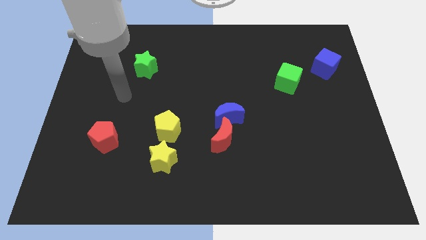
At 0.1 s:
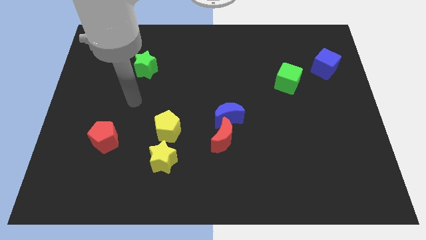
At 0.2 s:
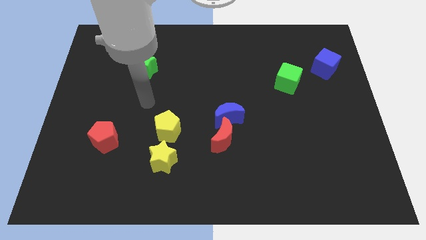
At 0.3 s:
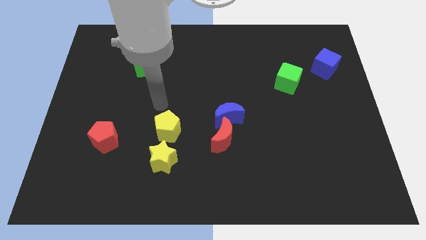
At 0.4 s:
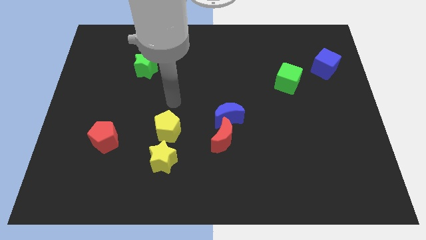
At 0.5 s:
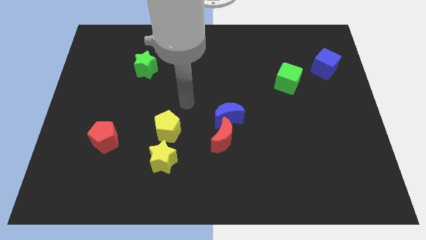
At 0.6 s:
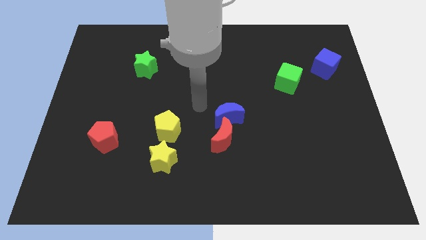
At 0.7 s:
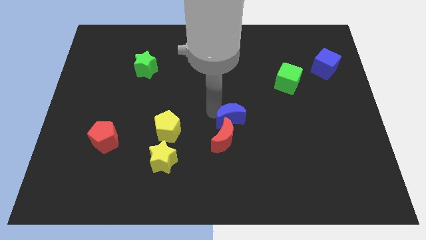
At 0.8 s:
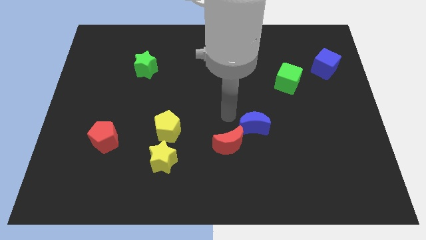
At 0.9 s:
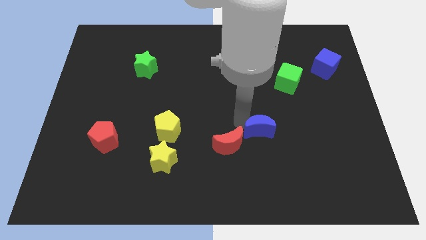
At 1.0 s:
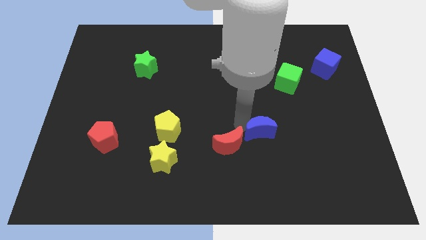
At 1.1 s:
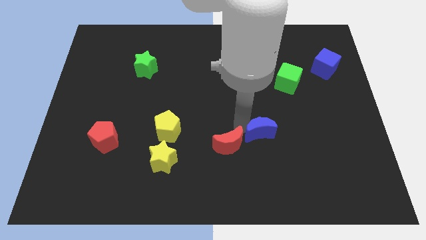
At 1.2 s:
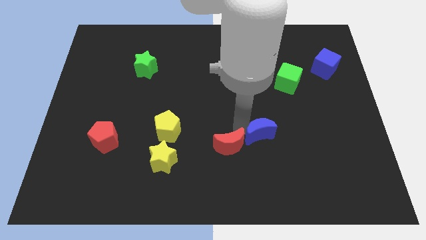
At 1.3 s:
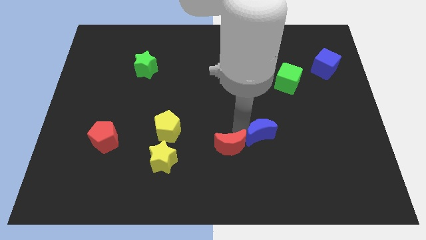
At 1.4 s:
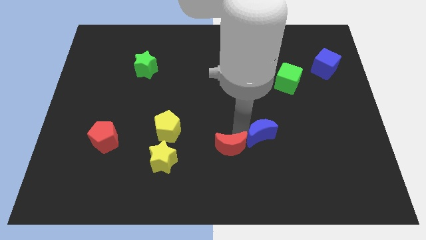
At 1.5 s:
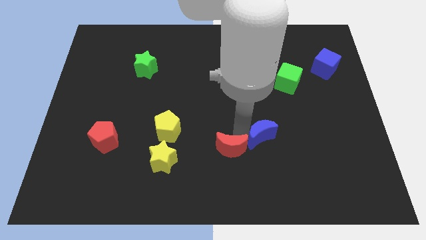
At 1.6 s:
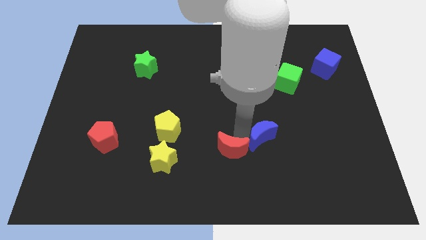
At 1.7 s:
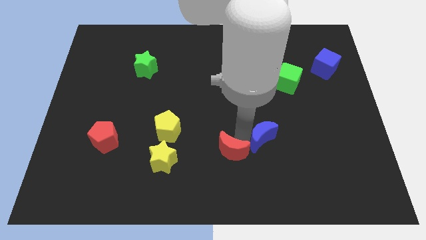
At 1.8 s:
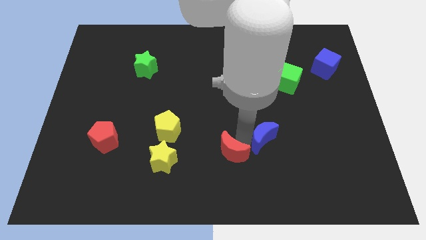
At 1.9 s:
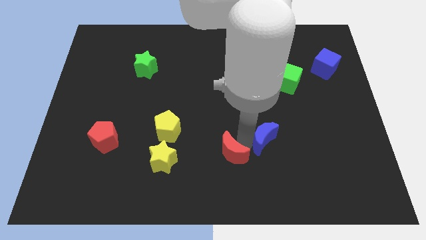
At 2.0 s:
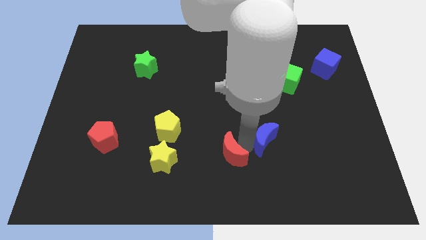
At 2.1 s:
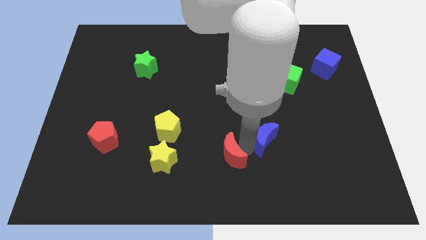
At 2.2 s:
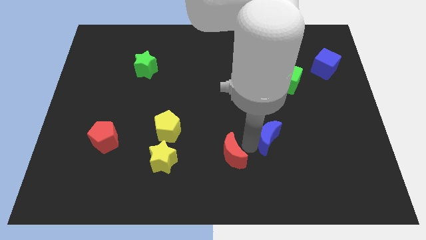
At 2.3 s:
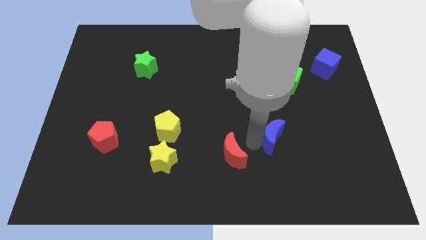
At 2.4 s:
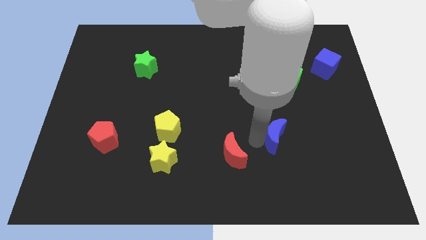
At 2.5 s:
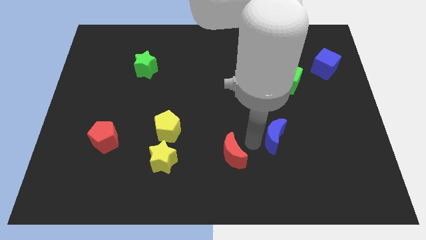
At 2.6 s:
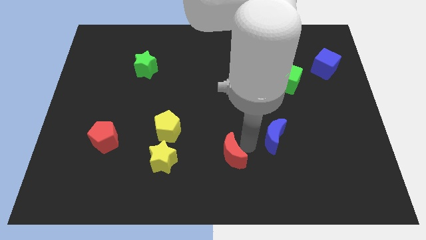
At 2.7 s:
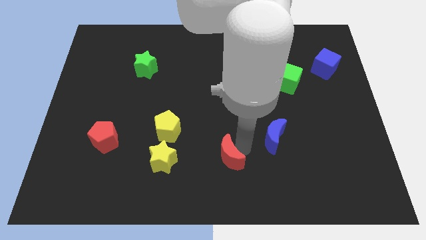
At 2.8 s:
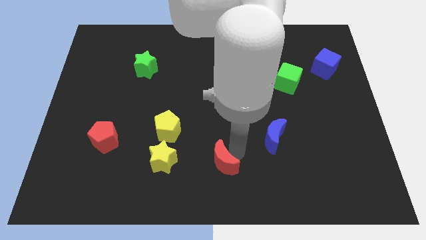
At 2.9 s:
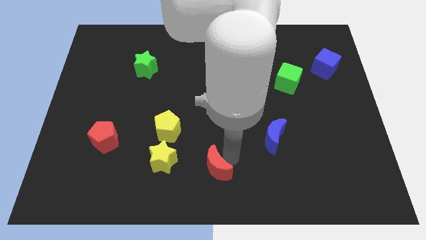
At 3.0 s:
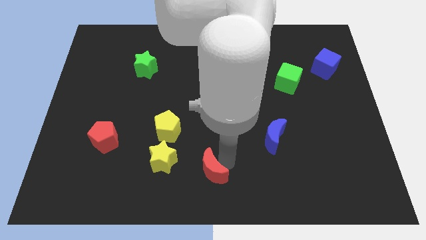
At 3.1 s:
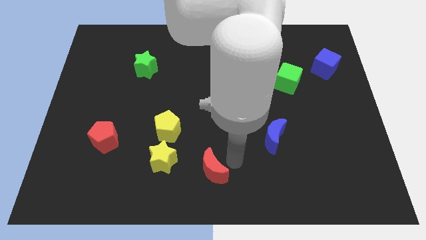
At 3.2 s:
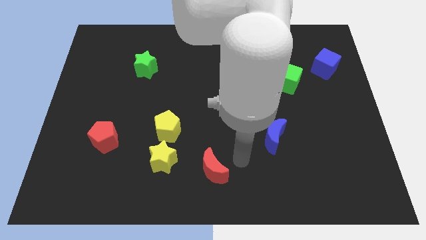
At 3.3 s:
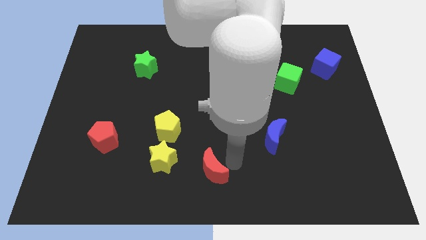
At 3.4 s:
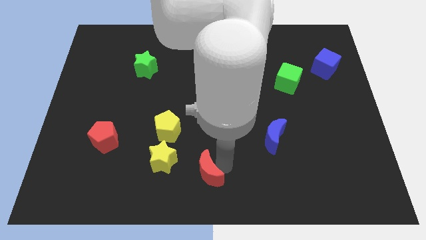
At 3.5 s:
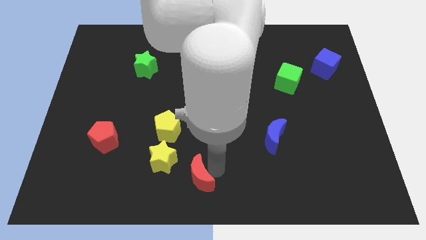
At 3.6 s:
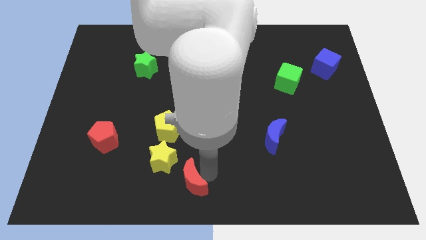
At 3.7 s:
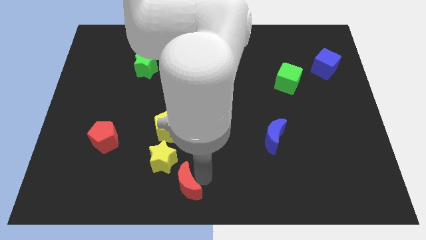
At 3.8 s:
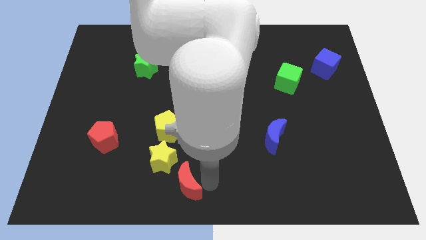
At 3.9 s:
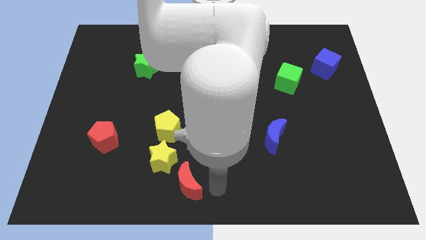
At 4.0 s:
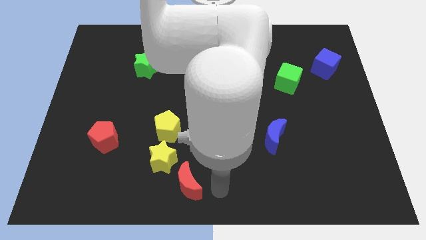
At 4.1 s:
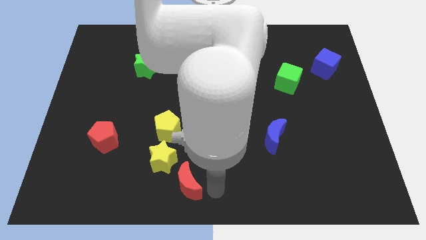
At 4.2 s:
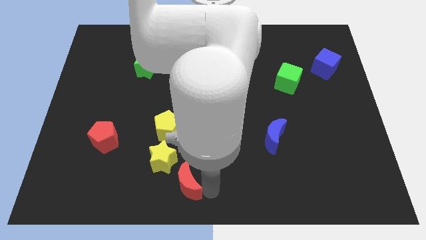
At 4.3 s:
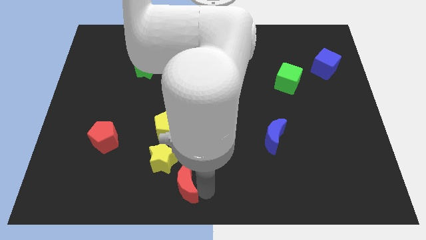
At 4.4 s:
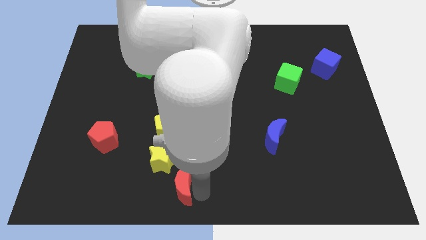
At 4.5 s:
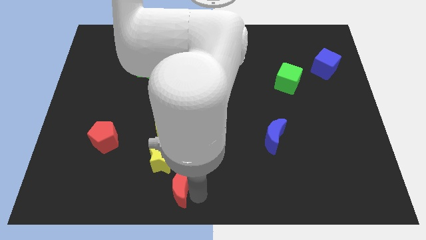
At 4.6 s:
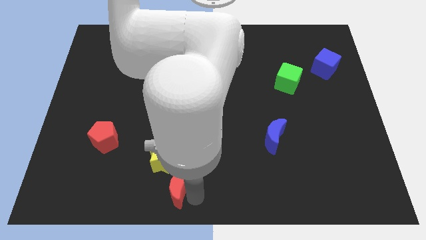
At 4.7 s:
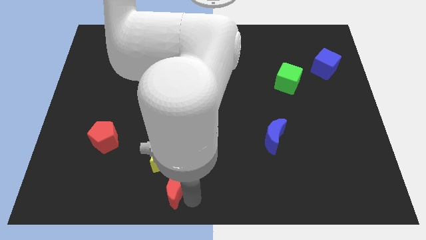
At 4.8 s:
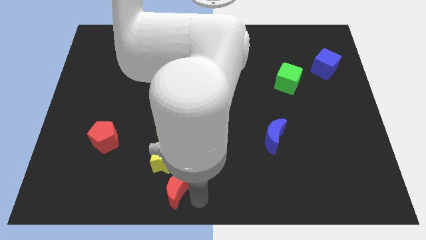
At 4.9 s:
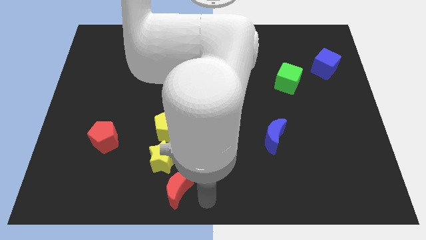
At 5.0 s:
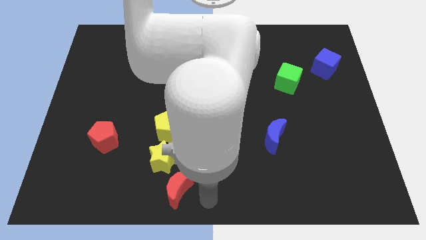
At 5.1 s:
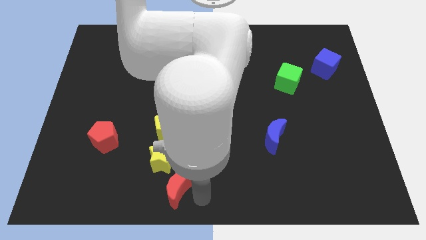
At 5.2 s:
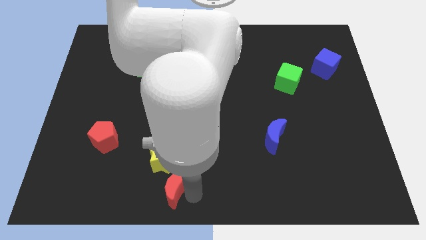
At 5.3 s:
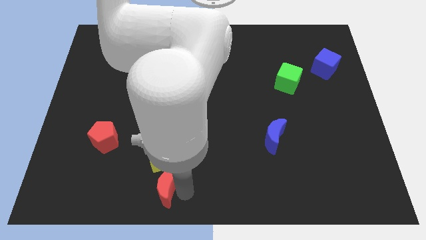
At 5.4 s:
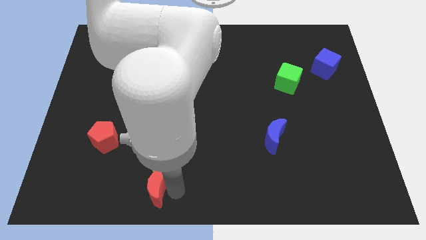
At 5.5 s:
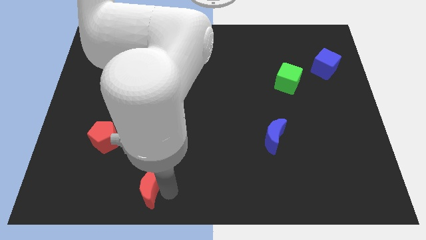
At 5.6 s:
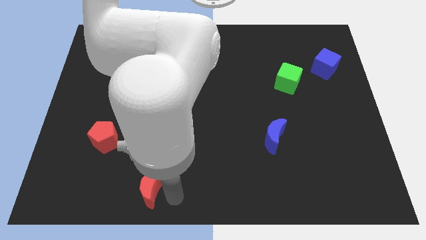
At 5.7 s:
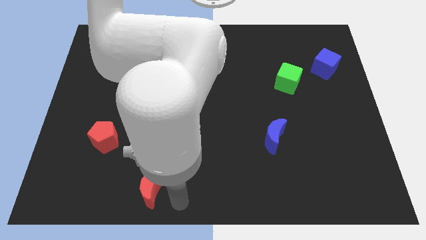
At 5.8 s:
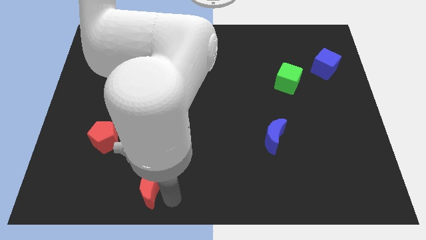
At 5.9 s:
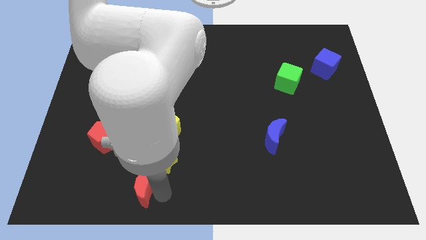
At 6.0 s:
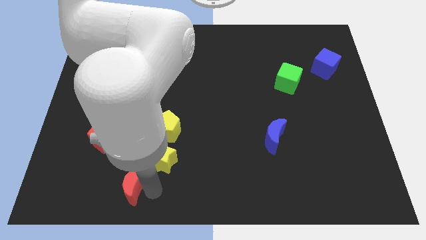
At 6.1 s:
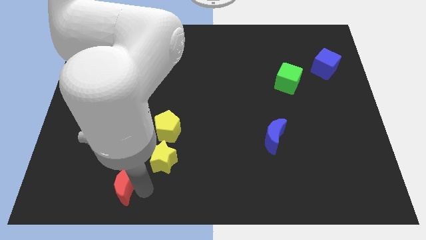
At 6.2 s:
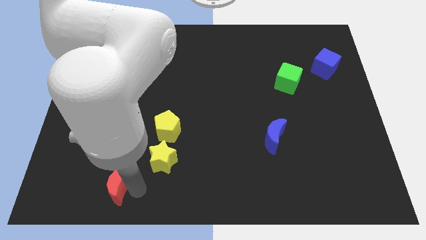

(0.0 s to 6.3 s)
put the red moon below the red pentagon

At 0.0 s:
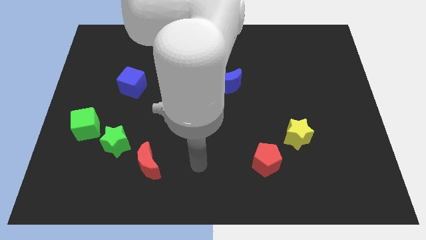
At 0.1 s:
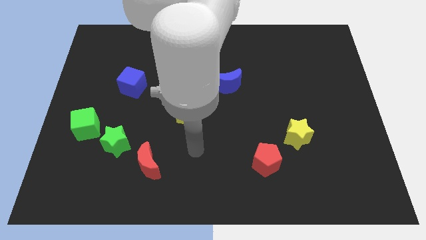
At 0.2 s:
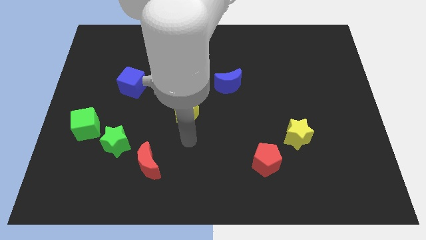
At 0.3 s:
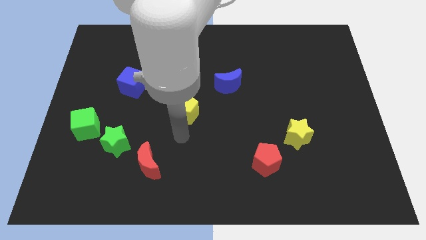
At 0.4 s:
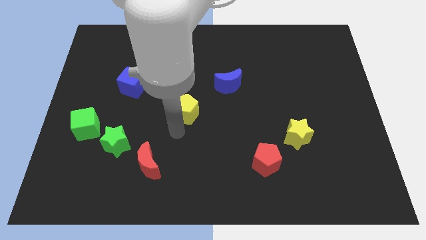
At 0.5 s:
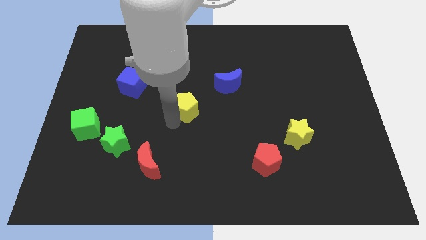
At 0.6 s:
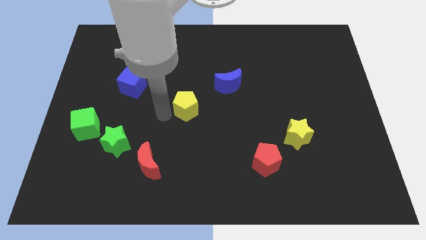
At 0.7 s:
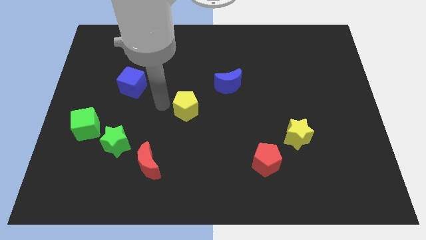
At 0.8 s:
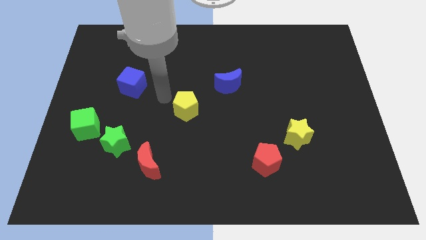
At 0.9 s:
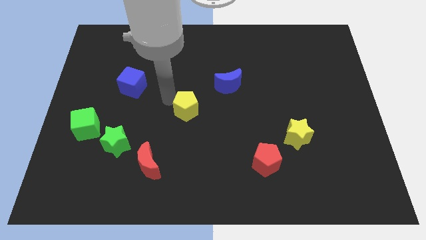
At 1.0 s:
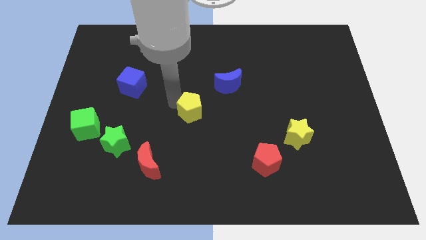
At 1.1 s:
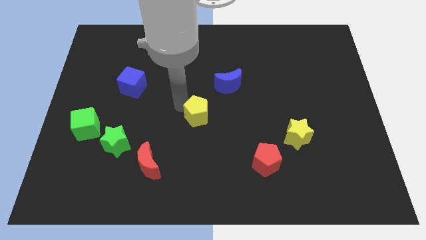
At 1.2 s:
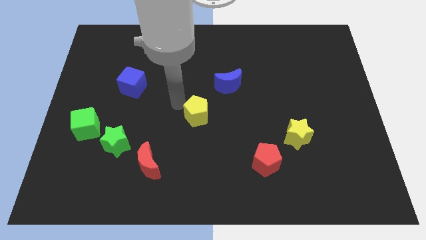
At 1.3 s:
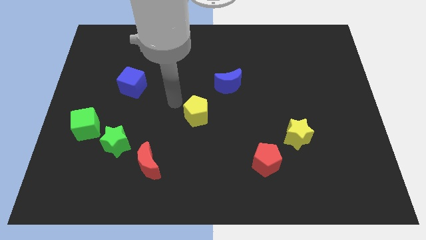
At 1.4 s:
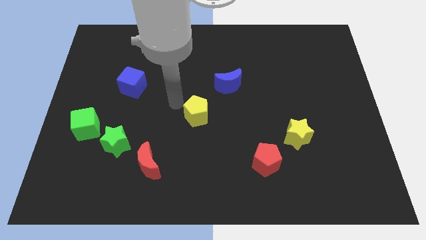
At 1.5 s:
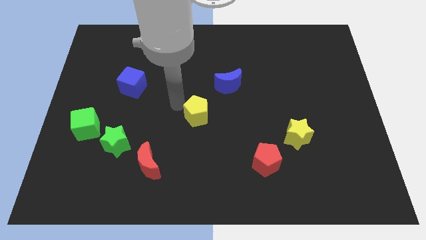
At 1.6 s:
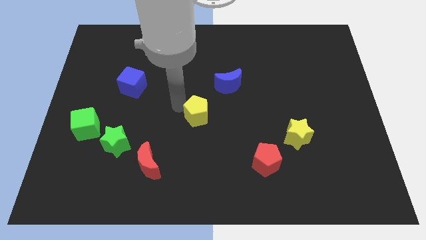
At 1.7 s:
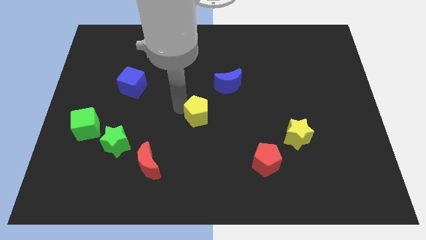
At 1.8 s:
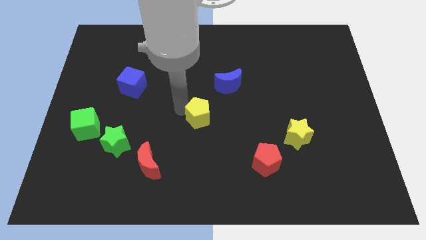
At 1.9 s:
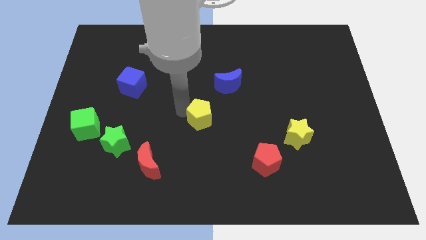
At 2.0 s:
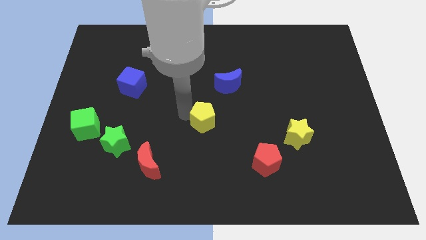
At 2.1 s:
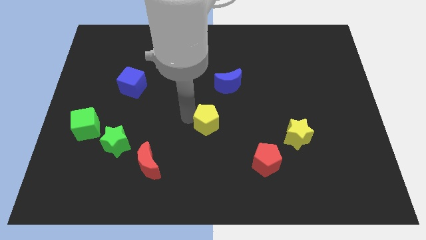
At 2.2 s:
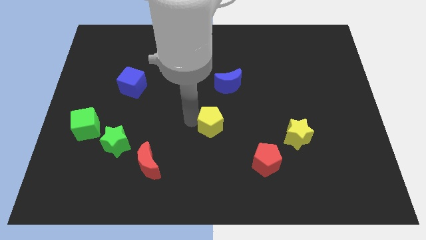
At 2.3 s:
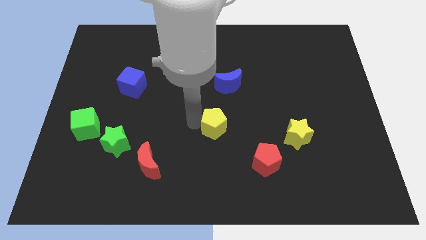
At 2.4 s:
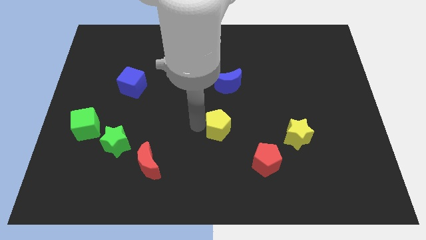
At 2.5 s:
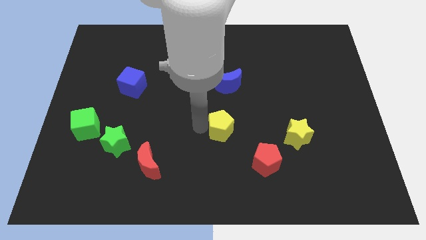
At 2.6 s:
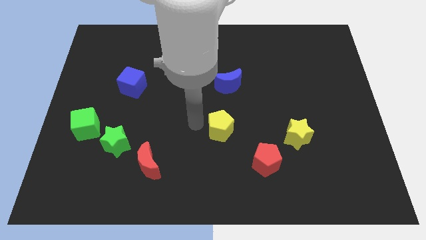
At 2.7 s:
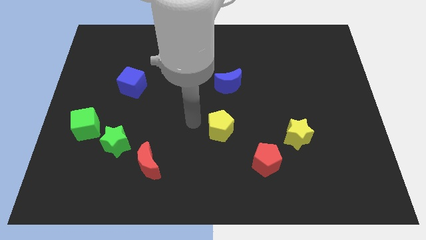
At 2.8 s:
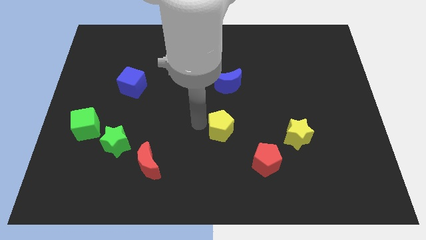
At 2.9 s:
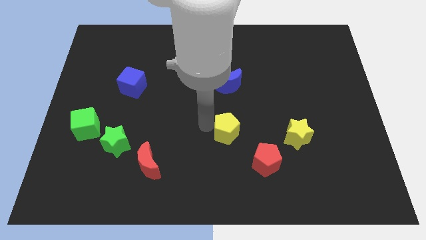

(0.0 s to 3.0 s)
push the yellow pentagon to the left of the yellow star
